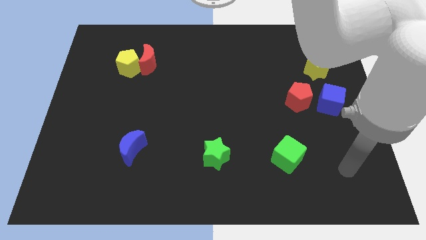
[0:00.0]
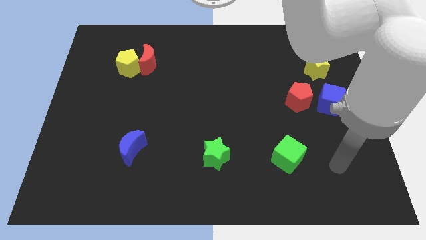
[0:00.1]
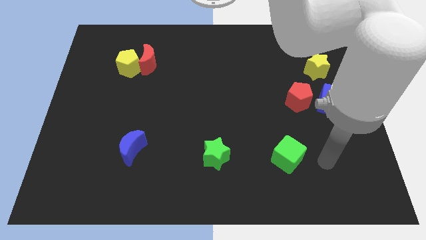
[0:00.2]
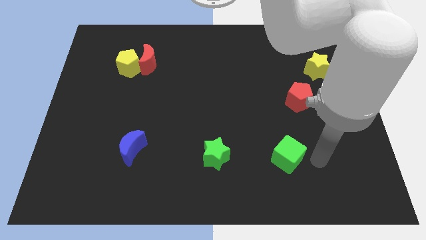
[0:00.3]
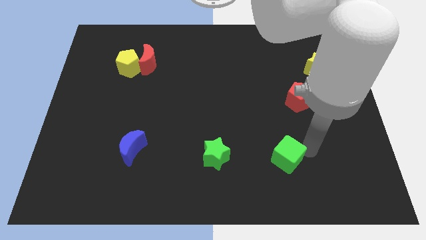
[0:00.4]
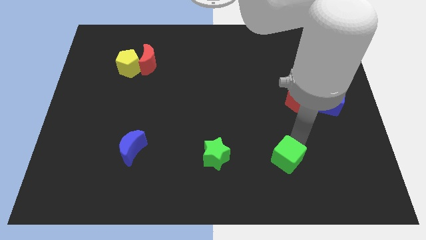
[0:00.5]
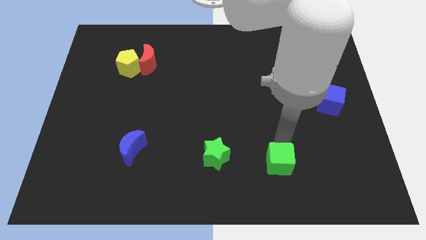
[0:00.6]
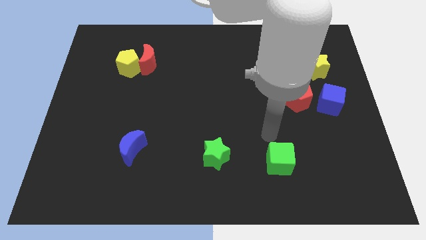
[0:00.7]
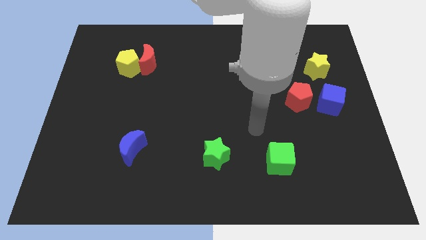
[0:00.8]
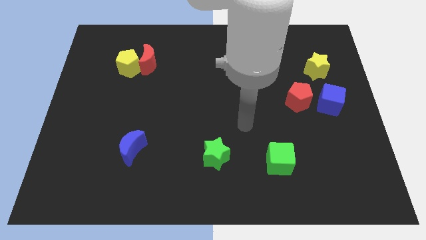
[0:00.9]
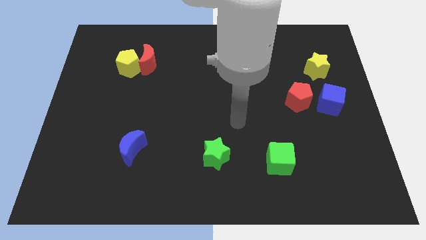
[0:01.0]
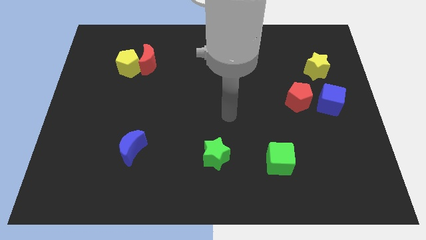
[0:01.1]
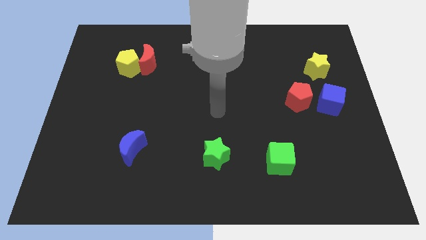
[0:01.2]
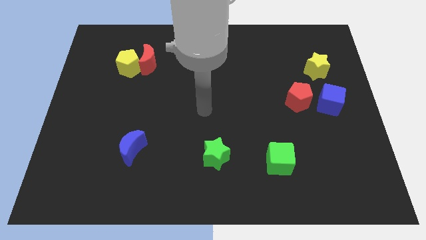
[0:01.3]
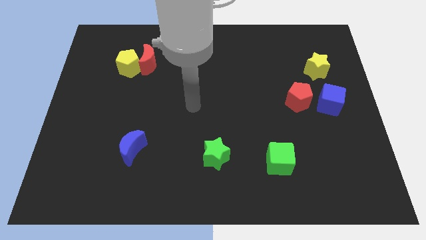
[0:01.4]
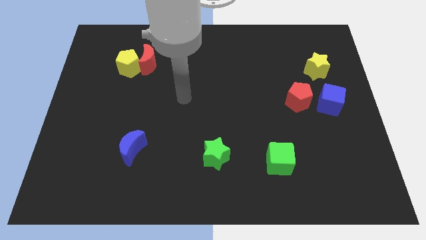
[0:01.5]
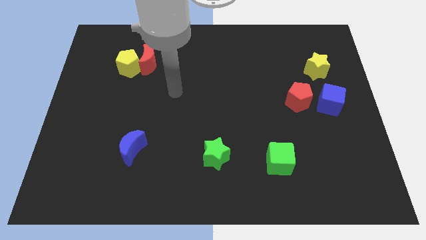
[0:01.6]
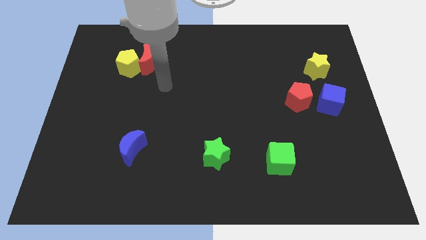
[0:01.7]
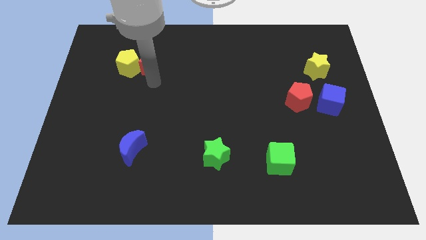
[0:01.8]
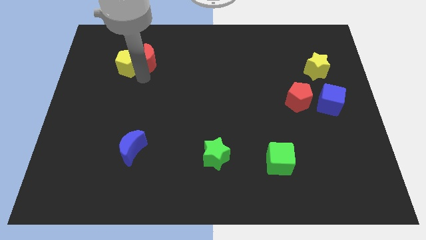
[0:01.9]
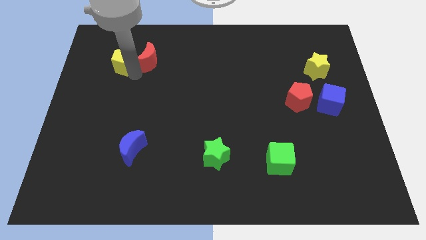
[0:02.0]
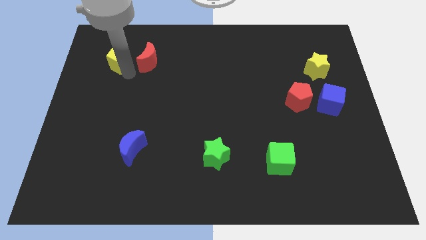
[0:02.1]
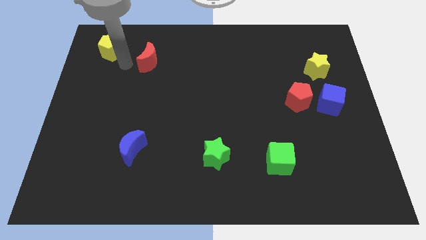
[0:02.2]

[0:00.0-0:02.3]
pull the red moon apart from the yellow pentagon

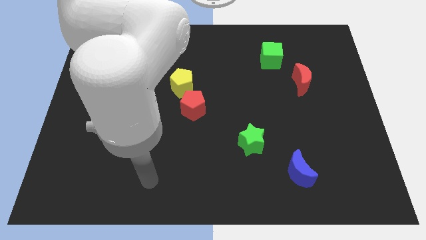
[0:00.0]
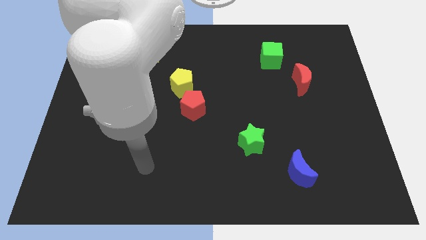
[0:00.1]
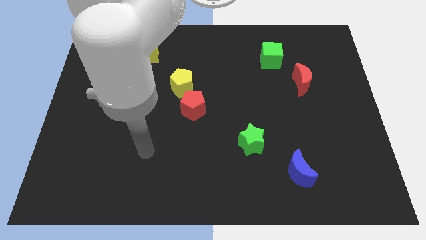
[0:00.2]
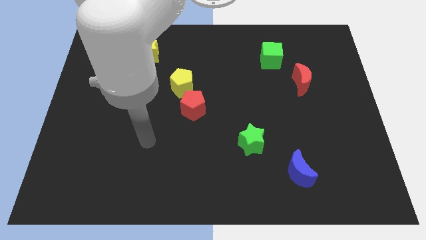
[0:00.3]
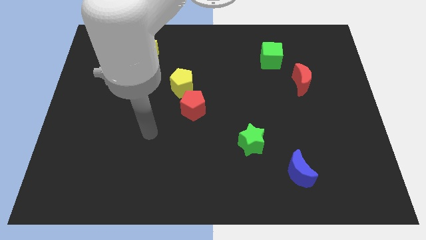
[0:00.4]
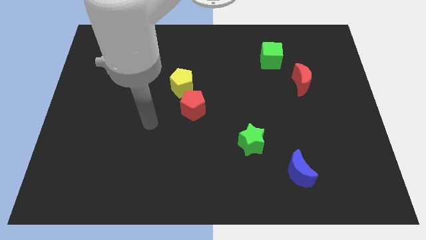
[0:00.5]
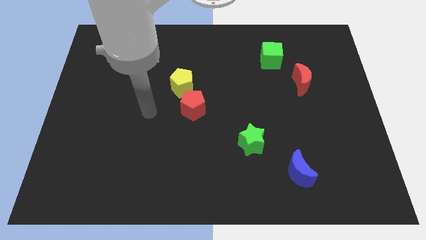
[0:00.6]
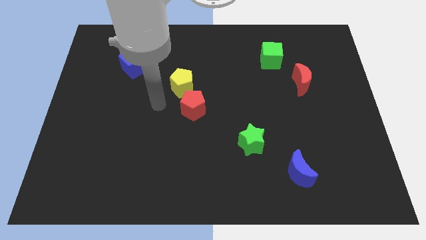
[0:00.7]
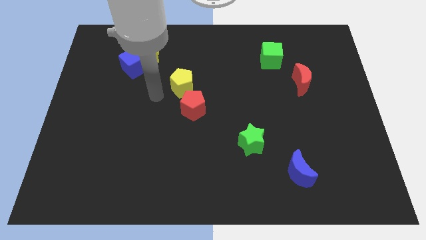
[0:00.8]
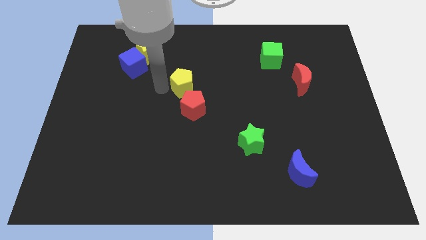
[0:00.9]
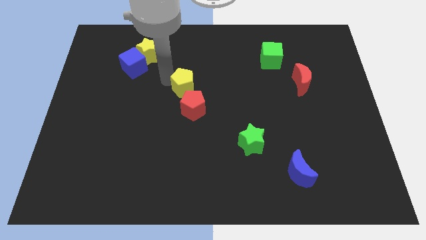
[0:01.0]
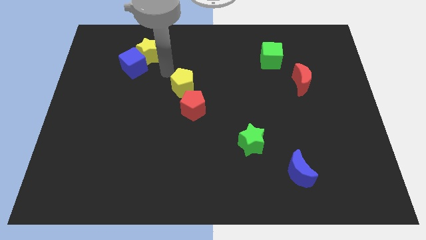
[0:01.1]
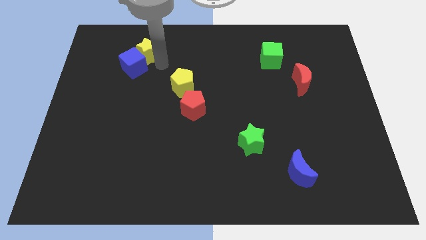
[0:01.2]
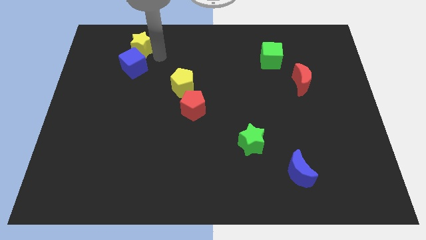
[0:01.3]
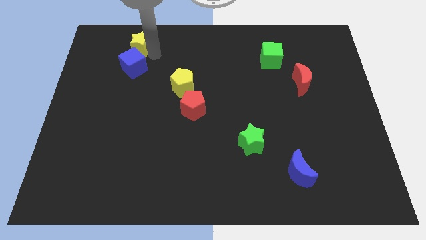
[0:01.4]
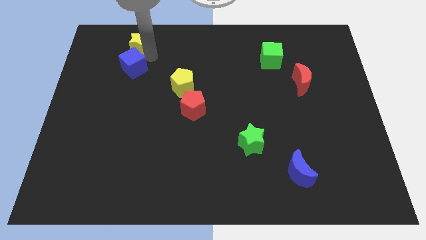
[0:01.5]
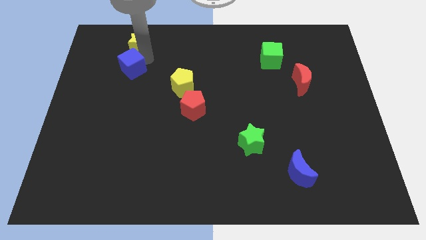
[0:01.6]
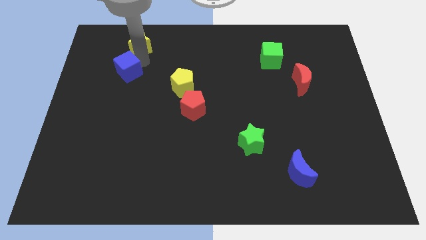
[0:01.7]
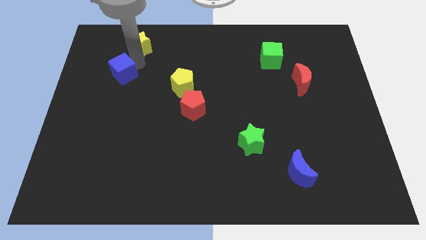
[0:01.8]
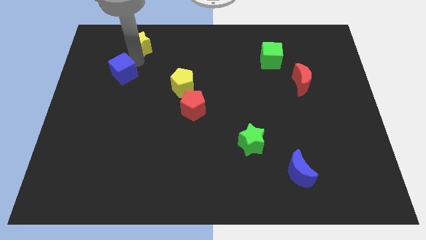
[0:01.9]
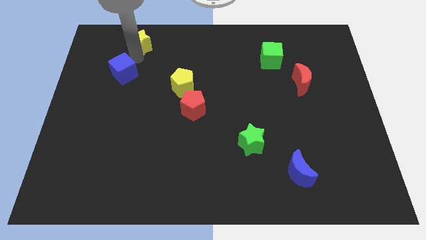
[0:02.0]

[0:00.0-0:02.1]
separate the blue cube from the yellow star

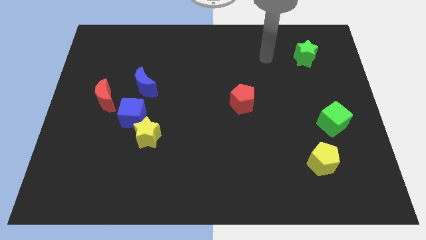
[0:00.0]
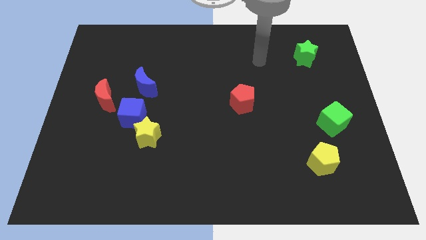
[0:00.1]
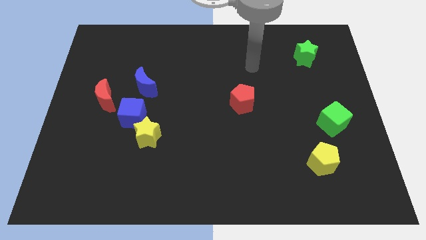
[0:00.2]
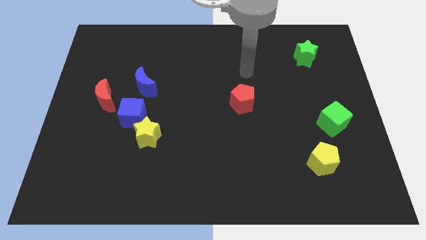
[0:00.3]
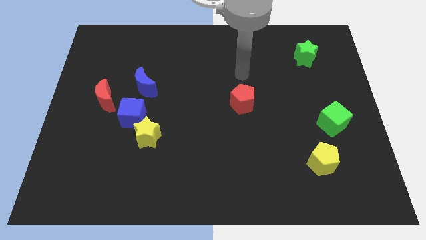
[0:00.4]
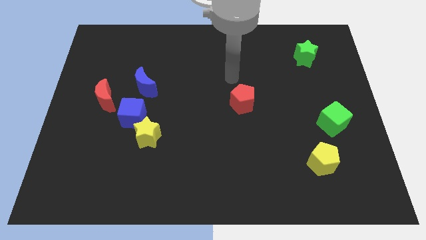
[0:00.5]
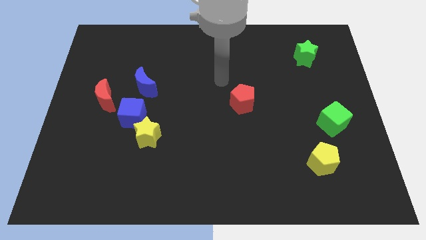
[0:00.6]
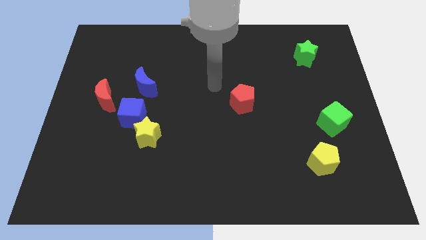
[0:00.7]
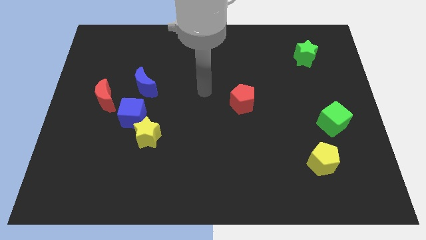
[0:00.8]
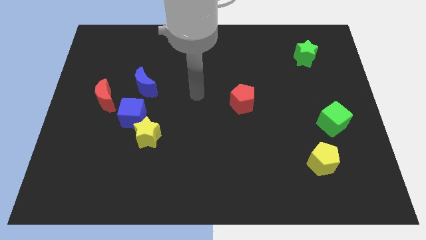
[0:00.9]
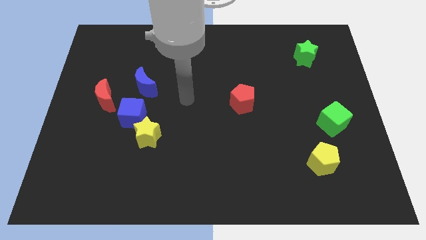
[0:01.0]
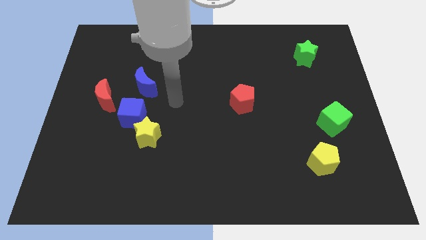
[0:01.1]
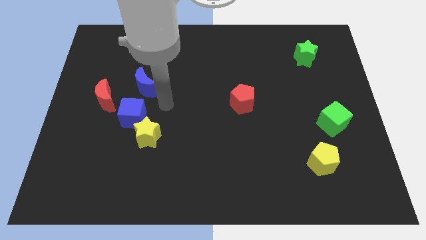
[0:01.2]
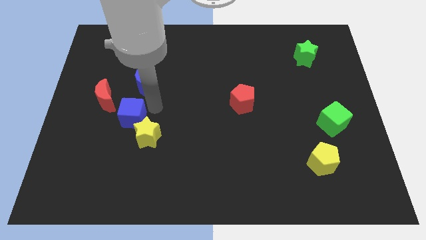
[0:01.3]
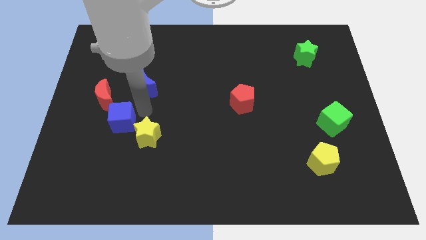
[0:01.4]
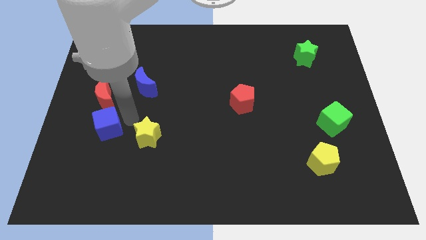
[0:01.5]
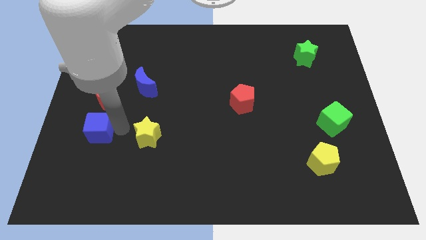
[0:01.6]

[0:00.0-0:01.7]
move the yellow star away from the blue cube

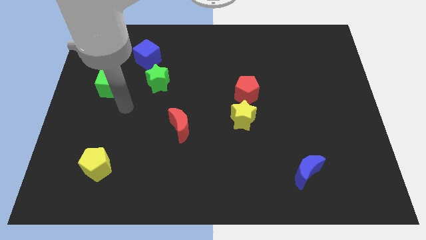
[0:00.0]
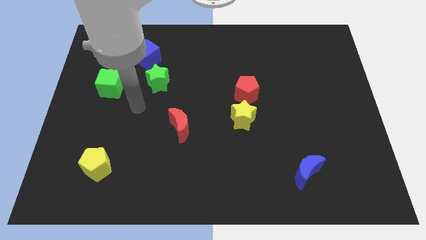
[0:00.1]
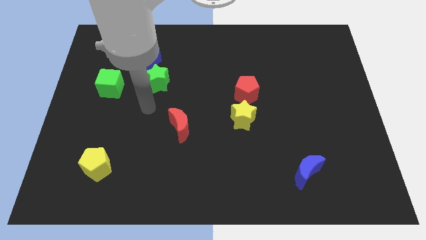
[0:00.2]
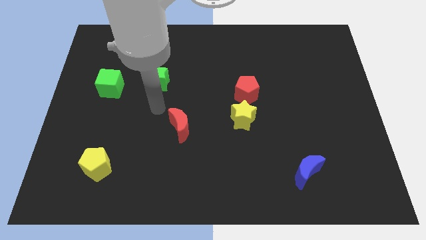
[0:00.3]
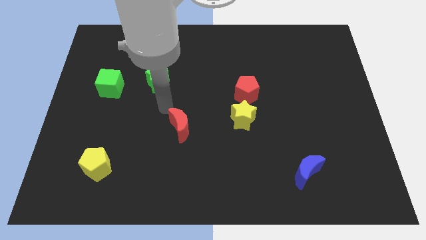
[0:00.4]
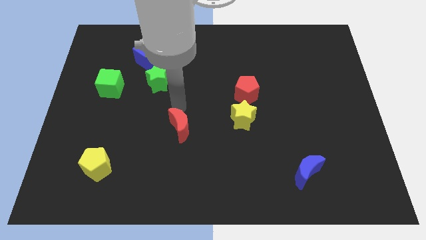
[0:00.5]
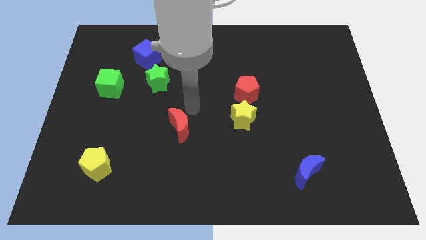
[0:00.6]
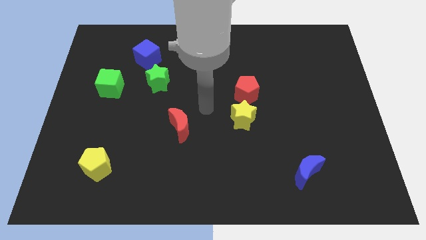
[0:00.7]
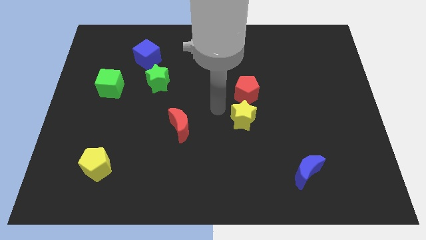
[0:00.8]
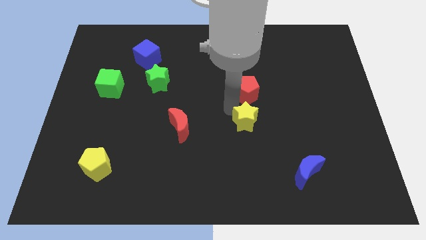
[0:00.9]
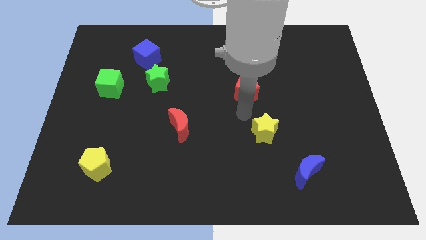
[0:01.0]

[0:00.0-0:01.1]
separate the red pentagon from the yellow star

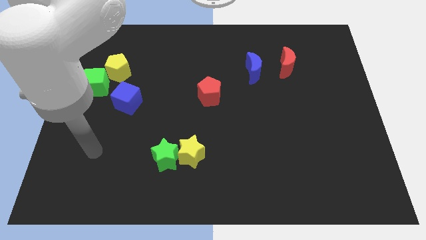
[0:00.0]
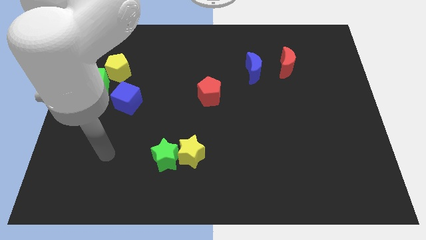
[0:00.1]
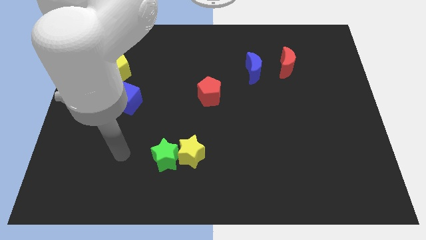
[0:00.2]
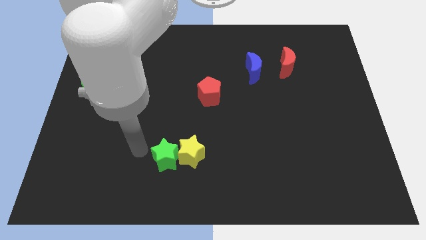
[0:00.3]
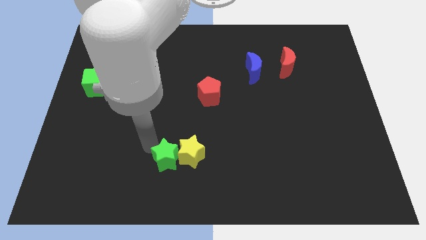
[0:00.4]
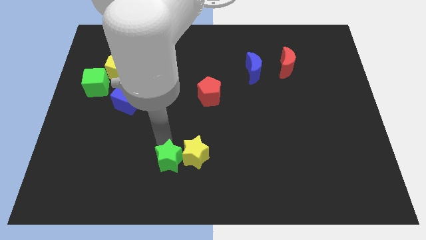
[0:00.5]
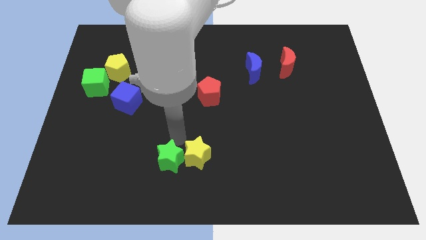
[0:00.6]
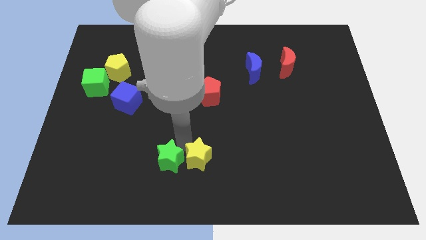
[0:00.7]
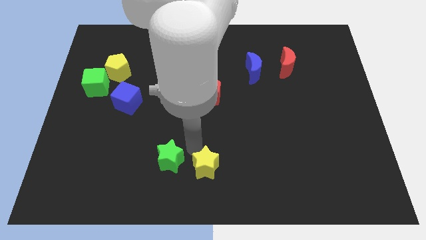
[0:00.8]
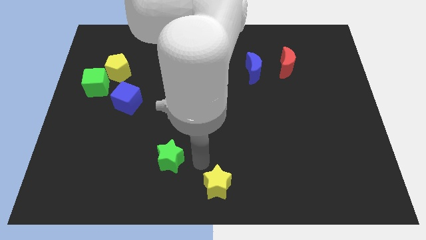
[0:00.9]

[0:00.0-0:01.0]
move the green star away from the yellow star

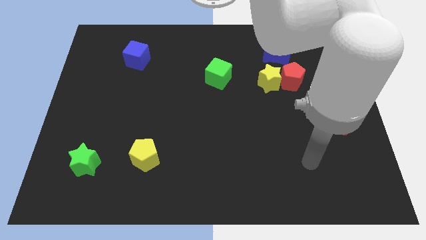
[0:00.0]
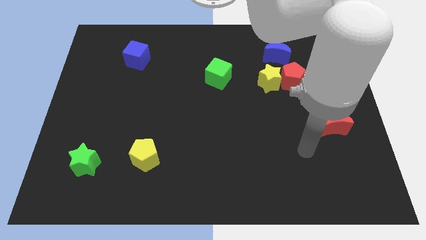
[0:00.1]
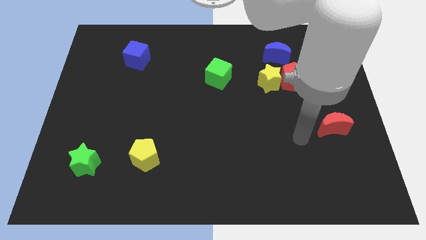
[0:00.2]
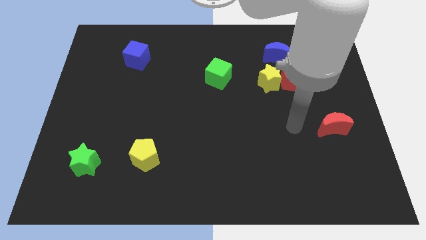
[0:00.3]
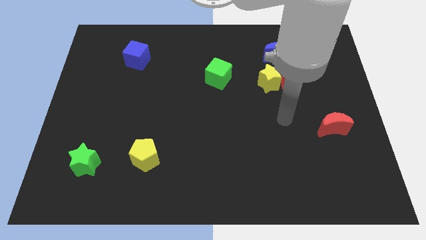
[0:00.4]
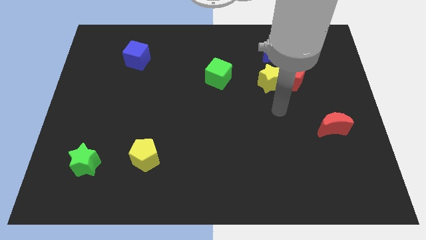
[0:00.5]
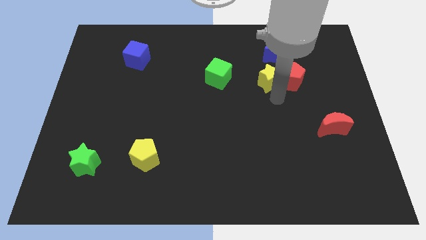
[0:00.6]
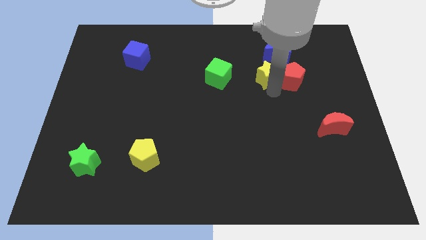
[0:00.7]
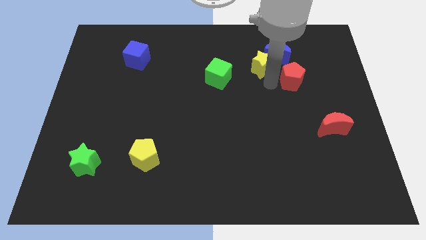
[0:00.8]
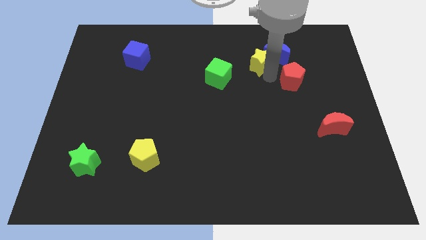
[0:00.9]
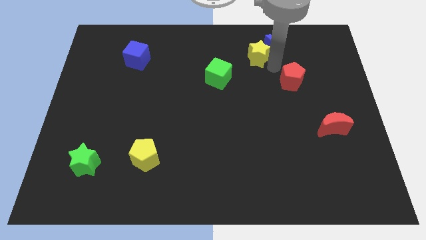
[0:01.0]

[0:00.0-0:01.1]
separate the red pentagon from the yellow star and blue moon
